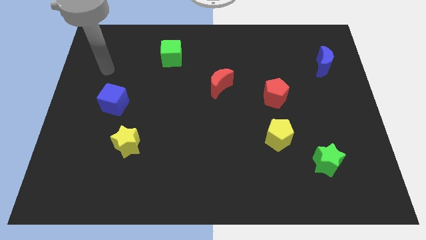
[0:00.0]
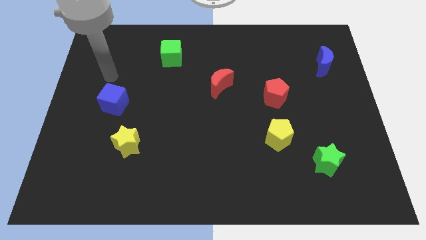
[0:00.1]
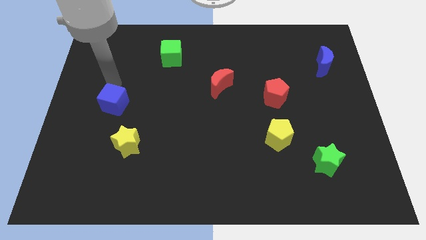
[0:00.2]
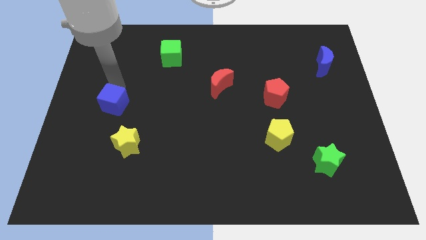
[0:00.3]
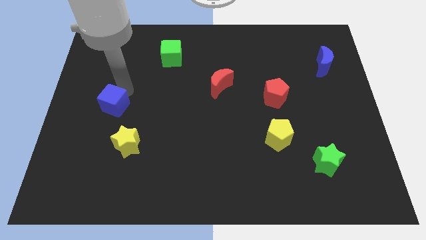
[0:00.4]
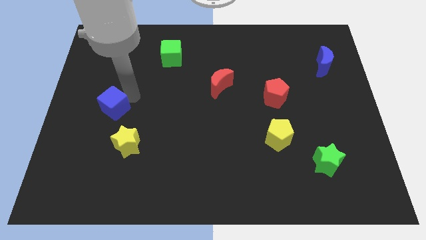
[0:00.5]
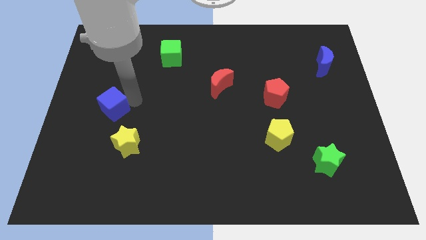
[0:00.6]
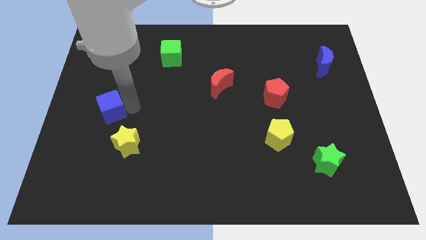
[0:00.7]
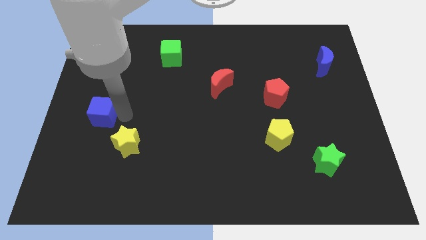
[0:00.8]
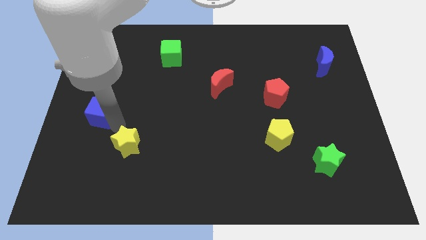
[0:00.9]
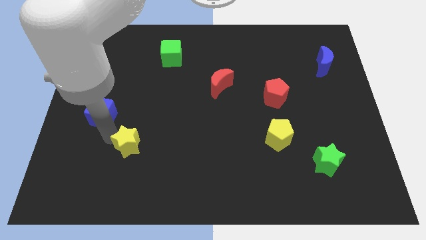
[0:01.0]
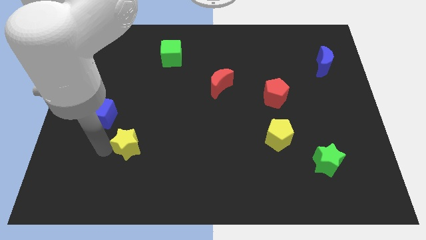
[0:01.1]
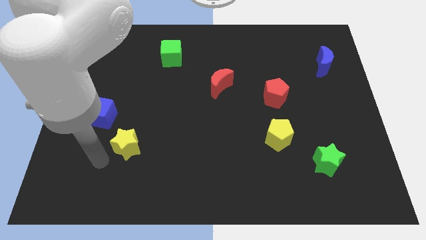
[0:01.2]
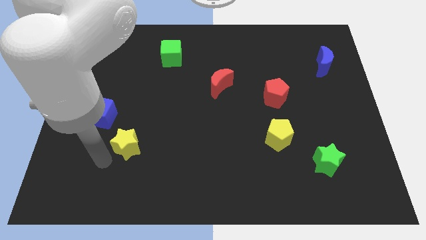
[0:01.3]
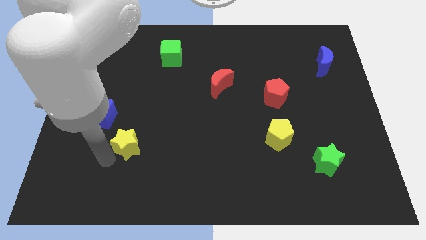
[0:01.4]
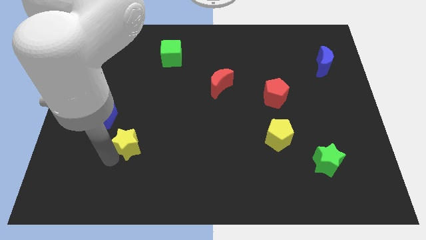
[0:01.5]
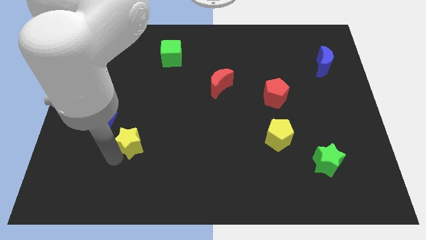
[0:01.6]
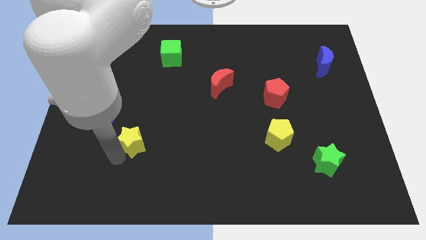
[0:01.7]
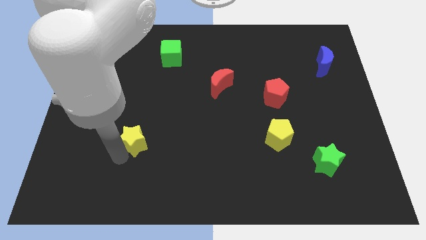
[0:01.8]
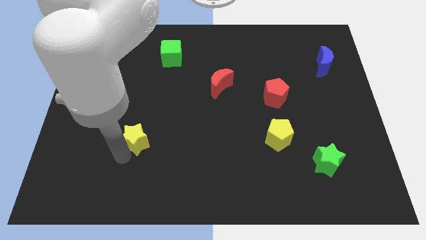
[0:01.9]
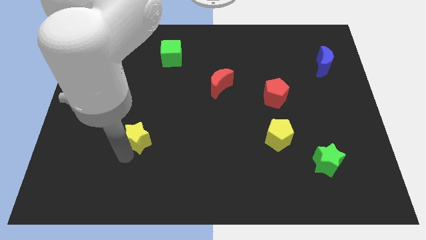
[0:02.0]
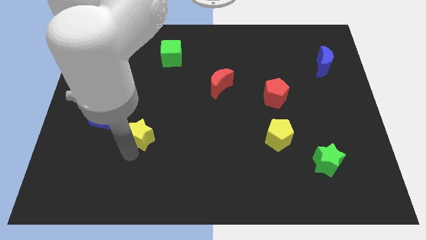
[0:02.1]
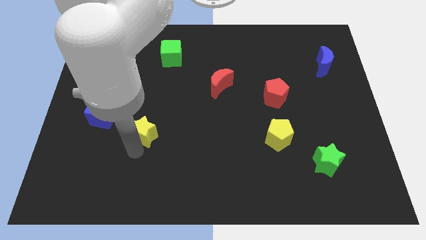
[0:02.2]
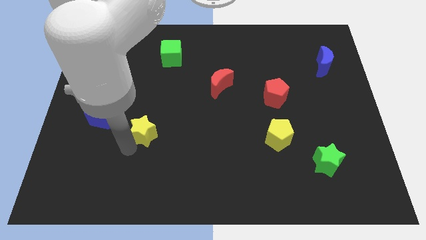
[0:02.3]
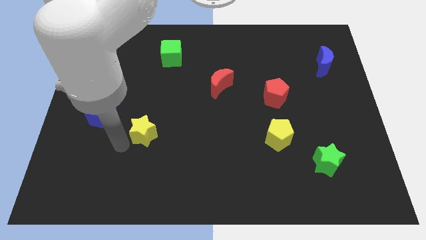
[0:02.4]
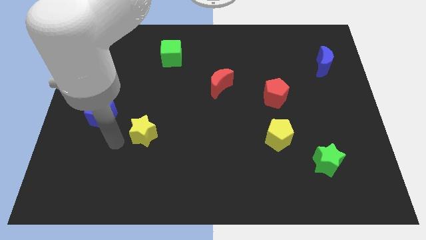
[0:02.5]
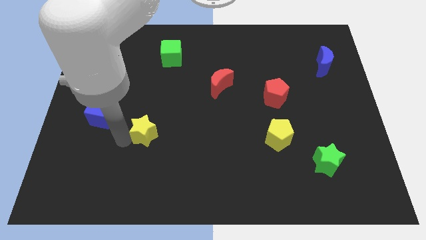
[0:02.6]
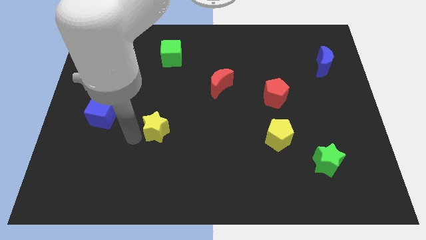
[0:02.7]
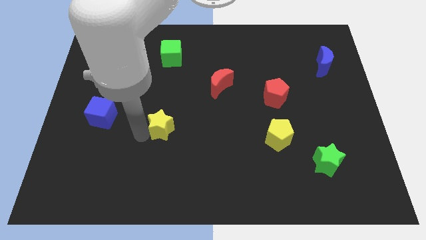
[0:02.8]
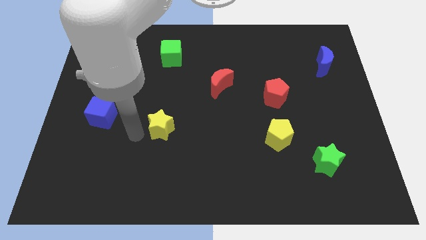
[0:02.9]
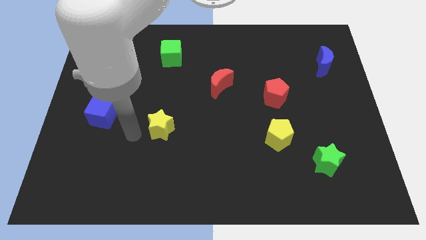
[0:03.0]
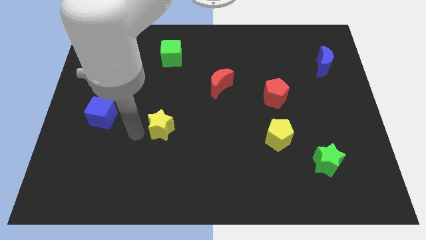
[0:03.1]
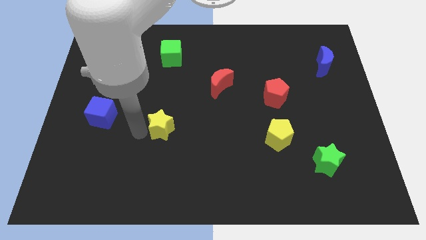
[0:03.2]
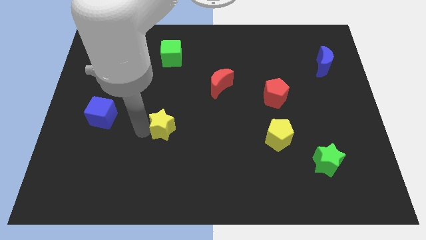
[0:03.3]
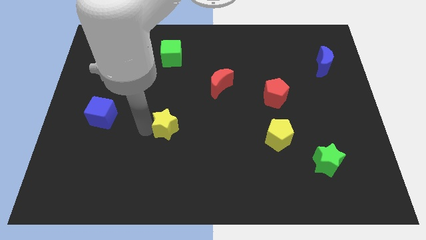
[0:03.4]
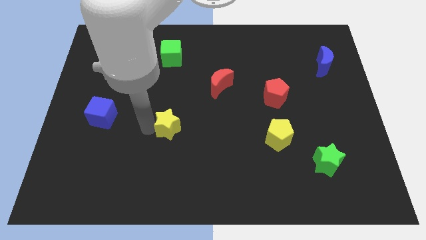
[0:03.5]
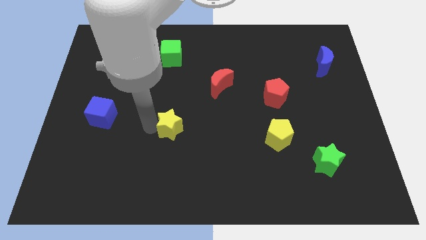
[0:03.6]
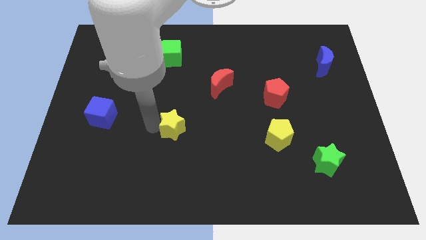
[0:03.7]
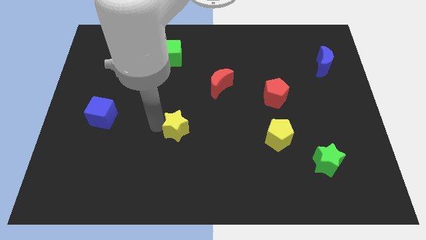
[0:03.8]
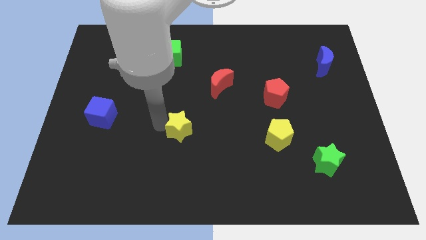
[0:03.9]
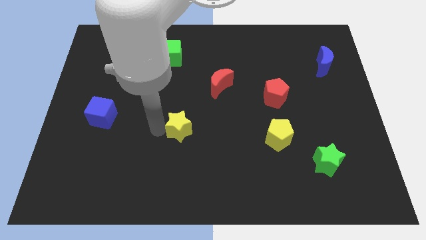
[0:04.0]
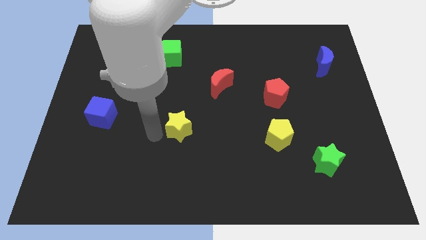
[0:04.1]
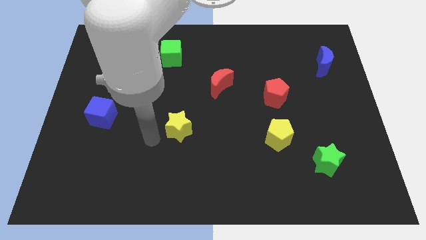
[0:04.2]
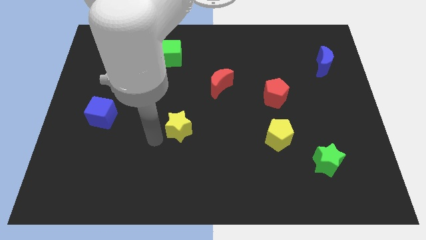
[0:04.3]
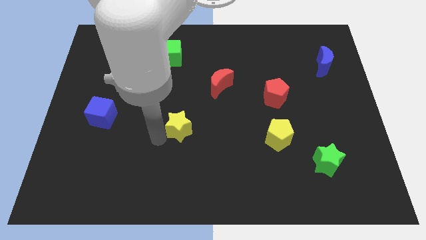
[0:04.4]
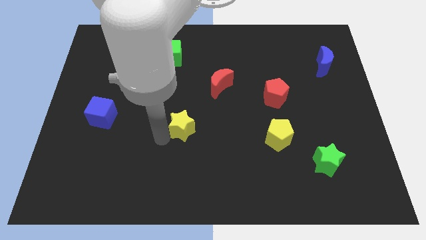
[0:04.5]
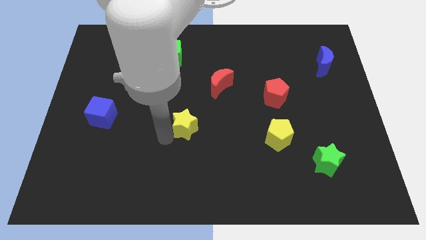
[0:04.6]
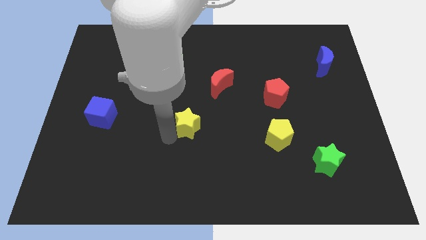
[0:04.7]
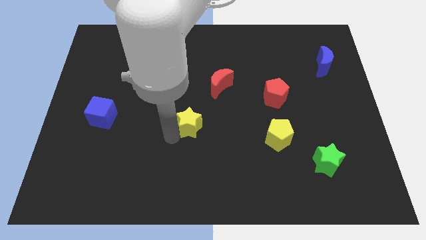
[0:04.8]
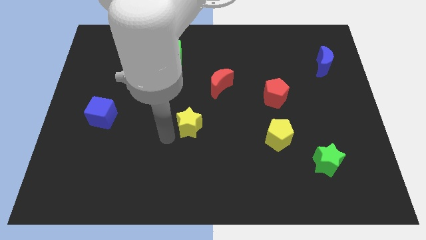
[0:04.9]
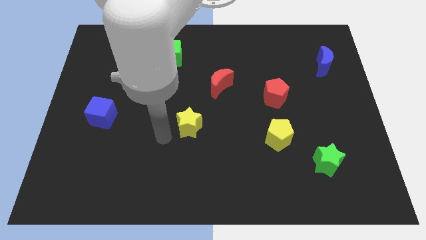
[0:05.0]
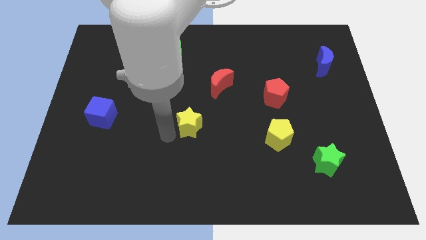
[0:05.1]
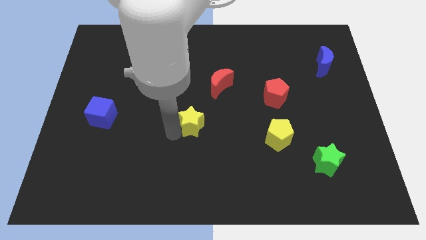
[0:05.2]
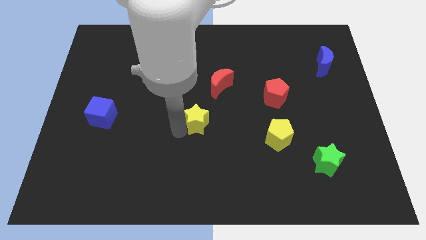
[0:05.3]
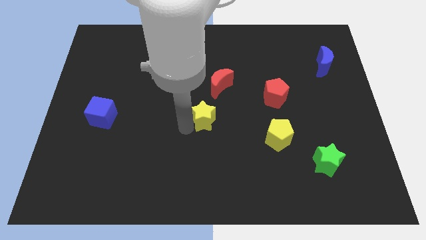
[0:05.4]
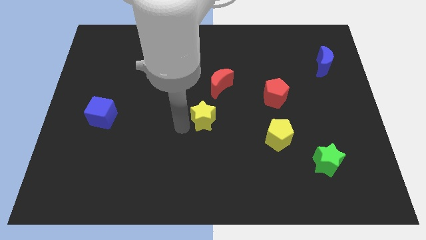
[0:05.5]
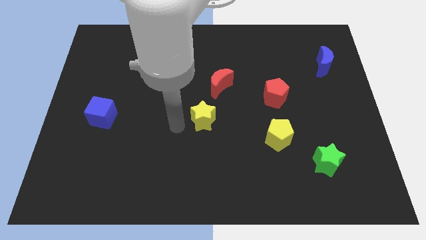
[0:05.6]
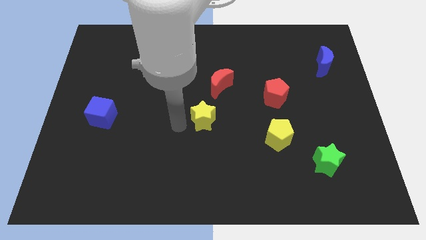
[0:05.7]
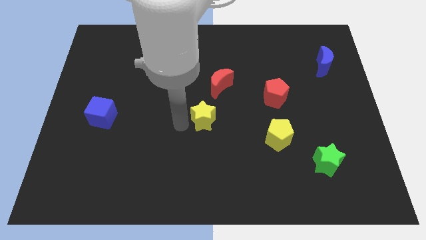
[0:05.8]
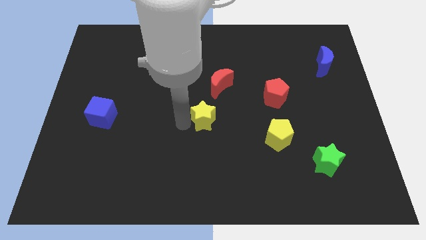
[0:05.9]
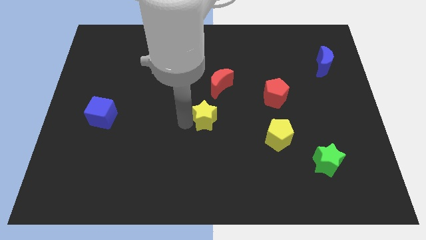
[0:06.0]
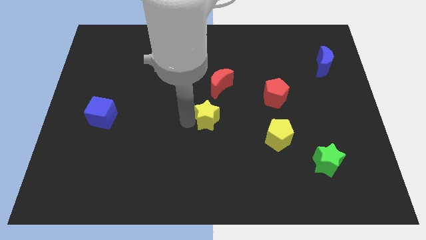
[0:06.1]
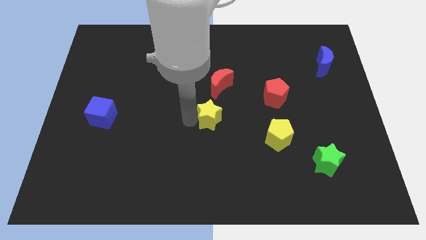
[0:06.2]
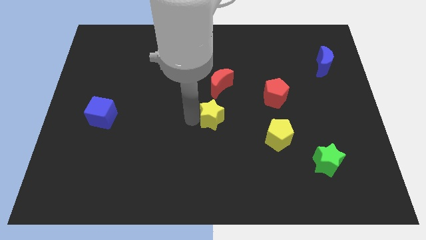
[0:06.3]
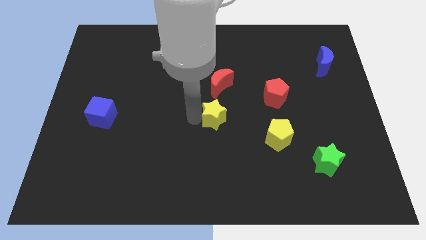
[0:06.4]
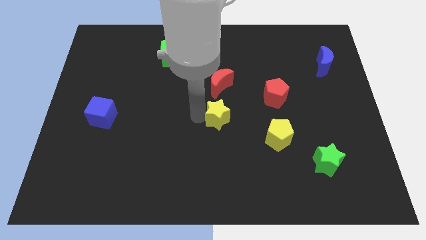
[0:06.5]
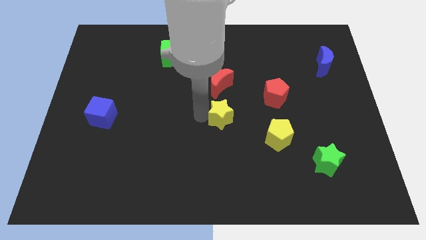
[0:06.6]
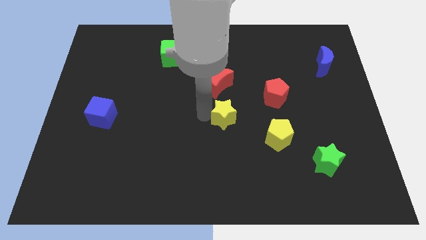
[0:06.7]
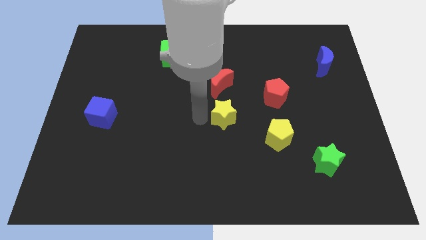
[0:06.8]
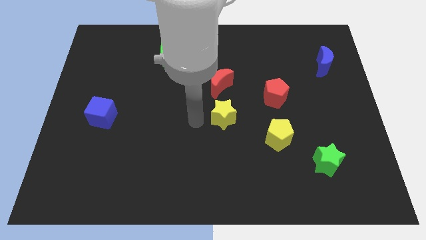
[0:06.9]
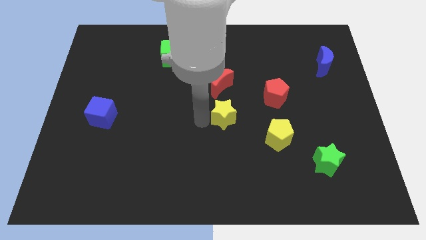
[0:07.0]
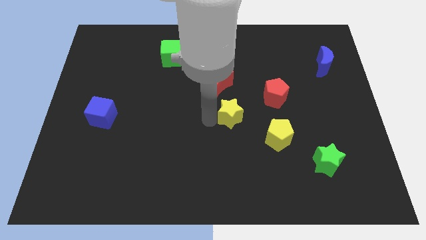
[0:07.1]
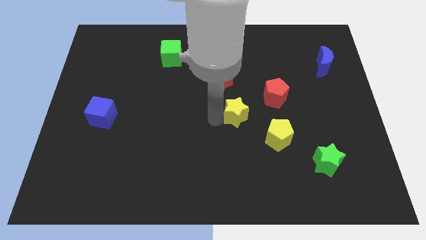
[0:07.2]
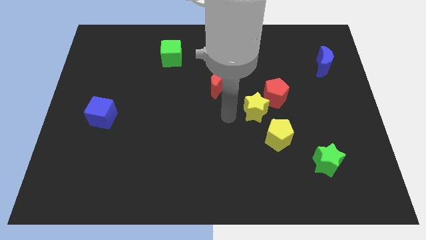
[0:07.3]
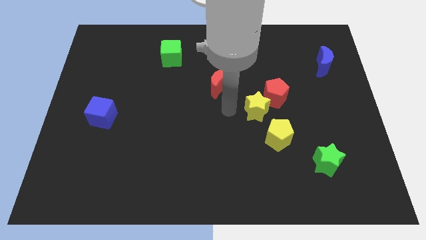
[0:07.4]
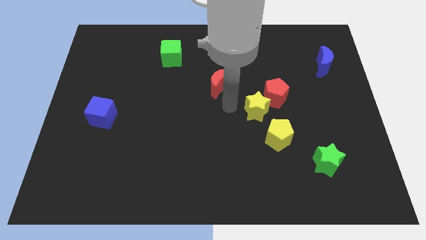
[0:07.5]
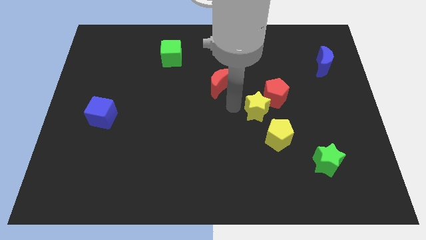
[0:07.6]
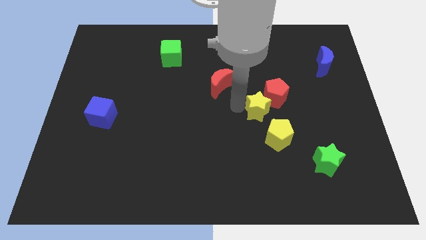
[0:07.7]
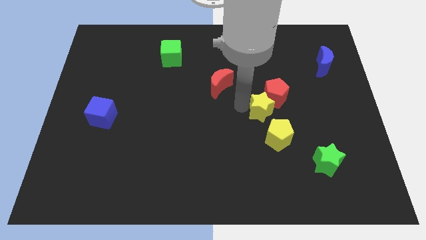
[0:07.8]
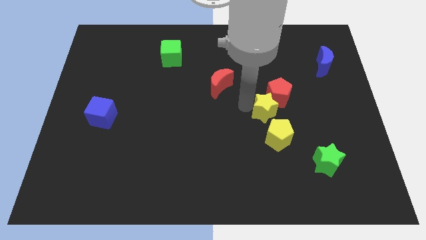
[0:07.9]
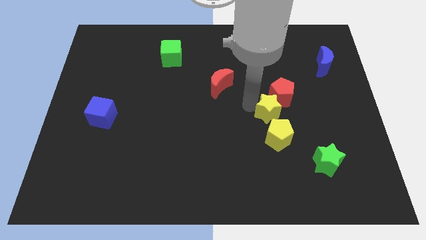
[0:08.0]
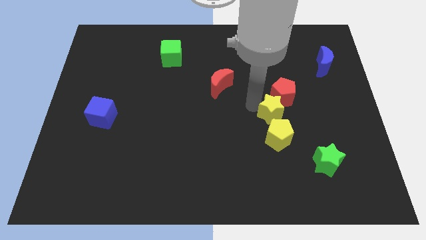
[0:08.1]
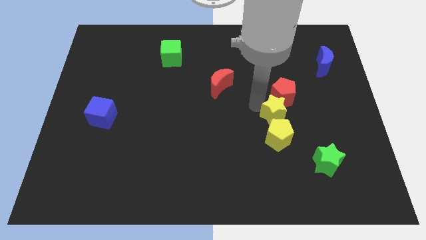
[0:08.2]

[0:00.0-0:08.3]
move the yellow star diagonally up and to the right of the yellow pentagon
